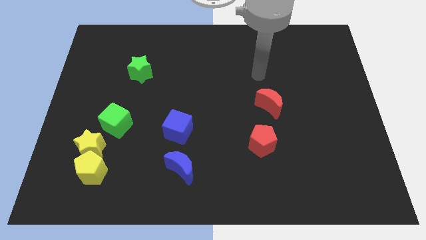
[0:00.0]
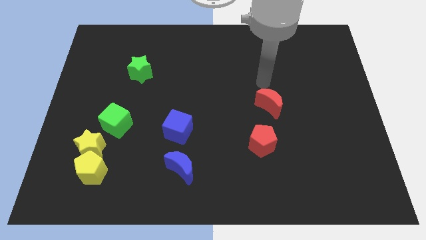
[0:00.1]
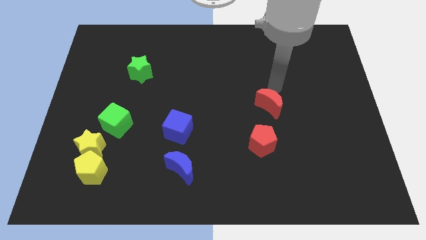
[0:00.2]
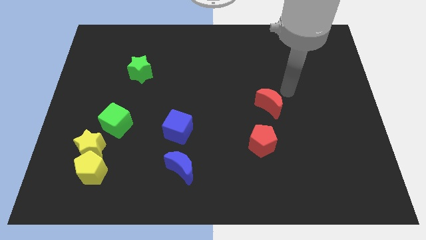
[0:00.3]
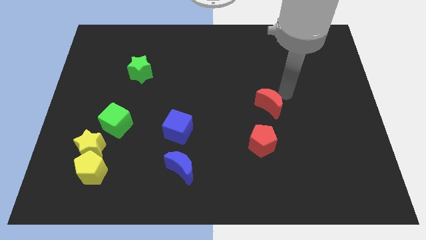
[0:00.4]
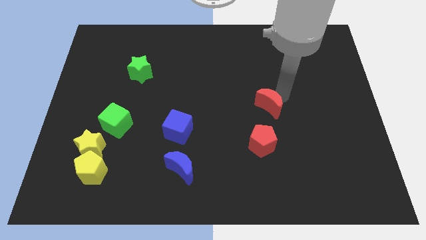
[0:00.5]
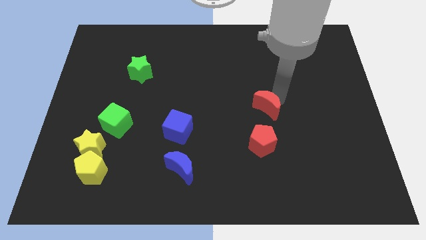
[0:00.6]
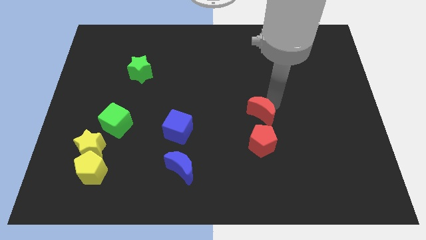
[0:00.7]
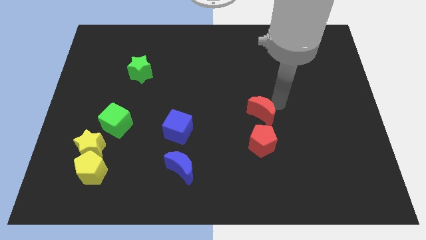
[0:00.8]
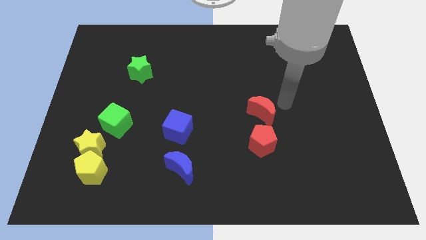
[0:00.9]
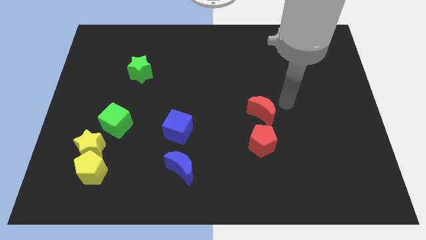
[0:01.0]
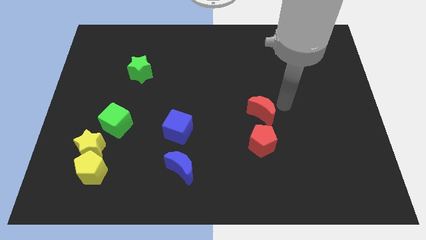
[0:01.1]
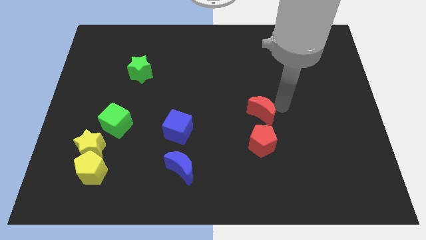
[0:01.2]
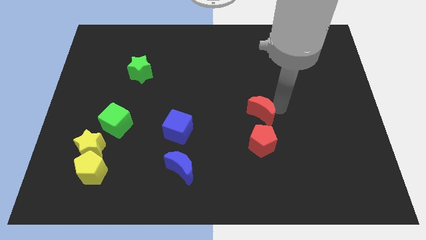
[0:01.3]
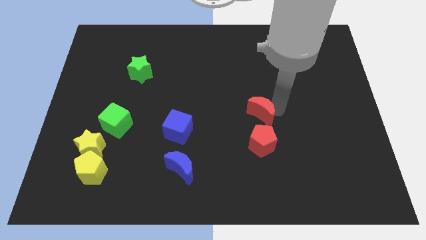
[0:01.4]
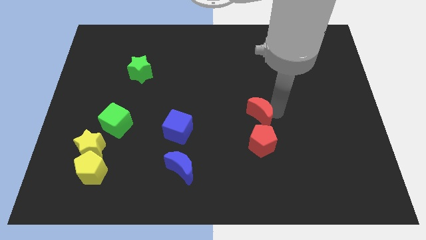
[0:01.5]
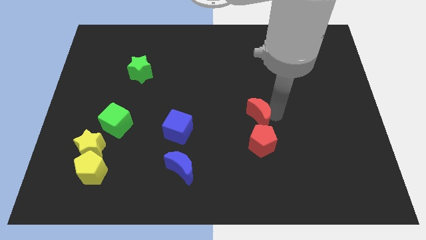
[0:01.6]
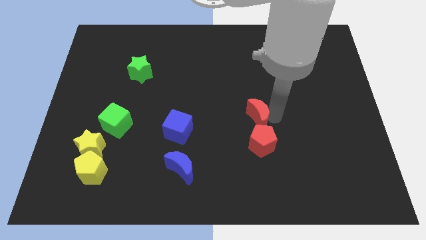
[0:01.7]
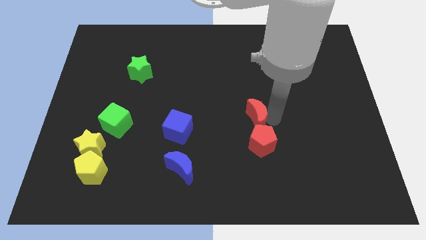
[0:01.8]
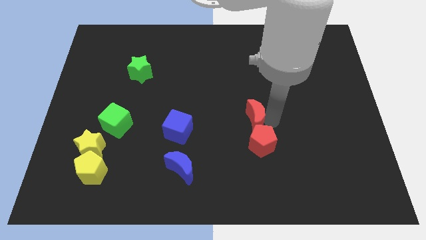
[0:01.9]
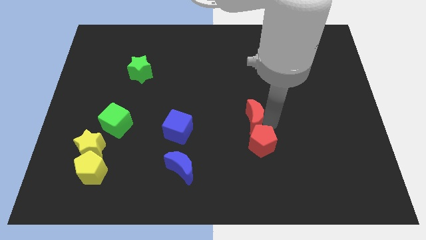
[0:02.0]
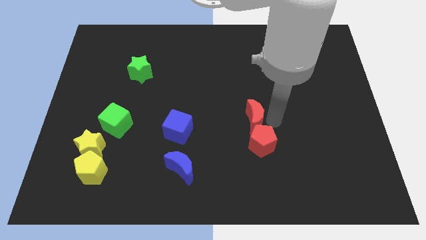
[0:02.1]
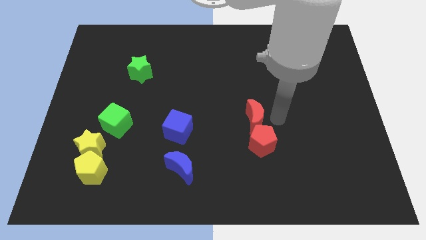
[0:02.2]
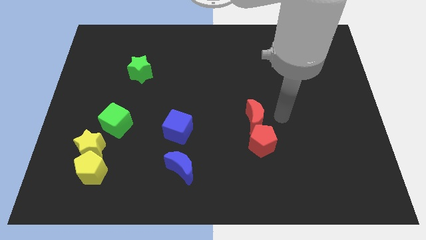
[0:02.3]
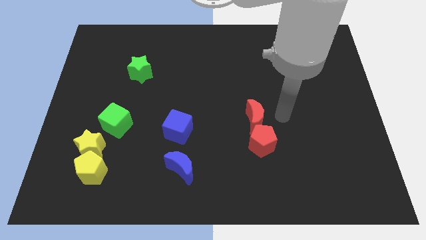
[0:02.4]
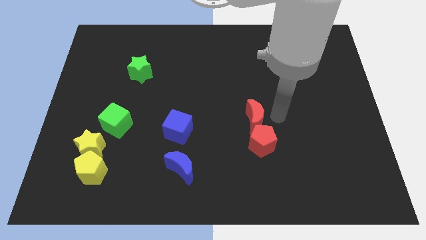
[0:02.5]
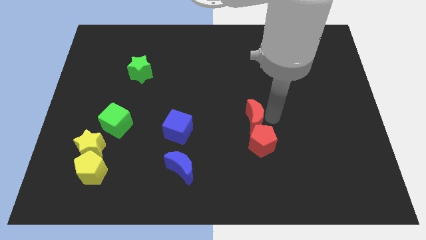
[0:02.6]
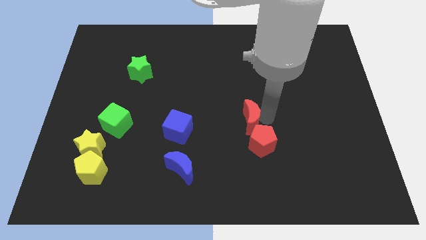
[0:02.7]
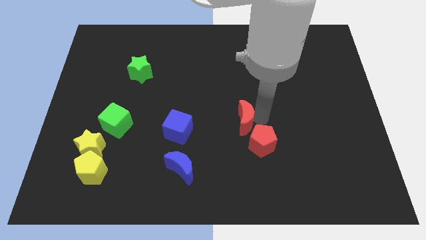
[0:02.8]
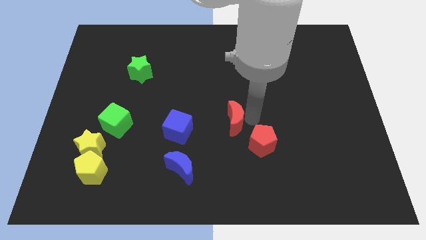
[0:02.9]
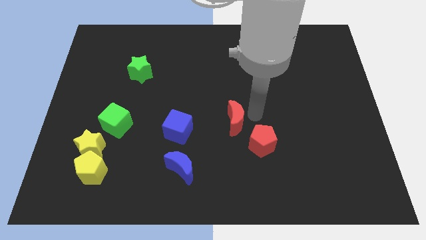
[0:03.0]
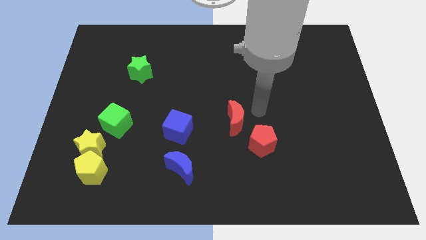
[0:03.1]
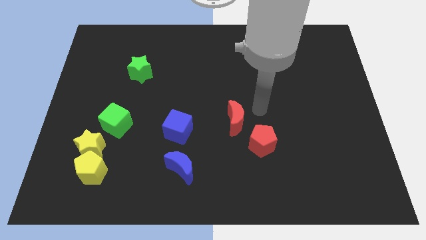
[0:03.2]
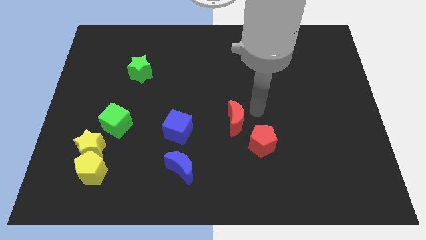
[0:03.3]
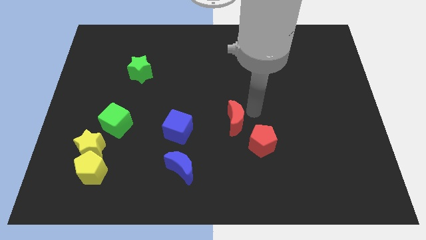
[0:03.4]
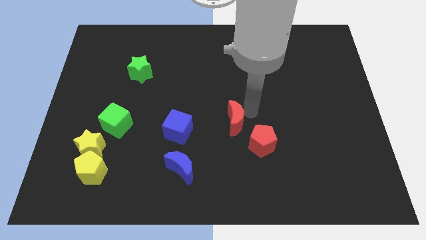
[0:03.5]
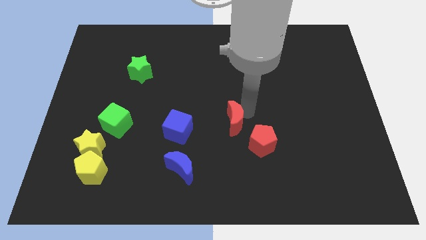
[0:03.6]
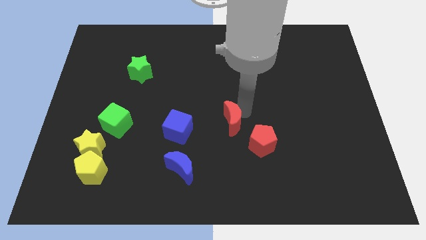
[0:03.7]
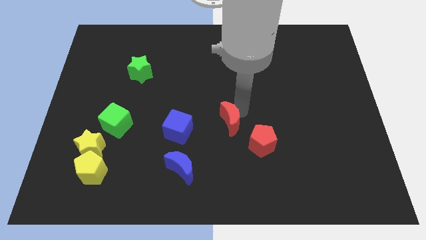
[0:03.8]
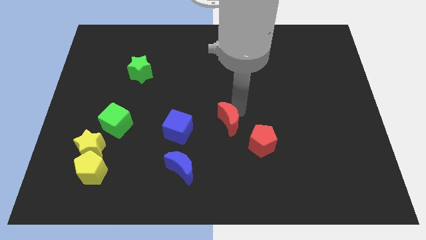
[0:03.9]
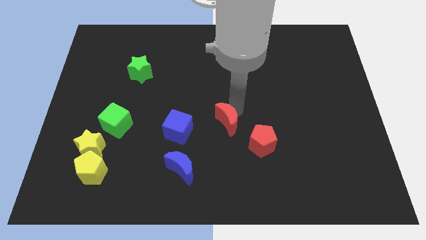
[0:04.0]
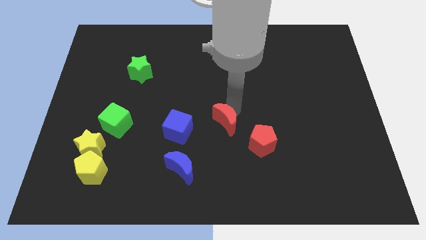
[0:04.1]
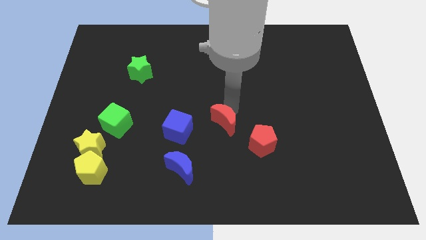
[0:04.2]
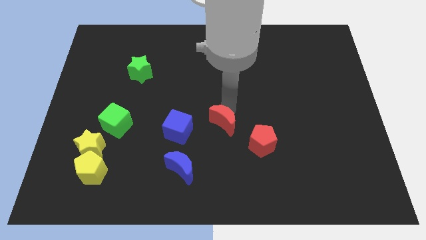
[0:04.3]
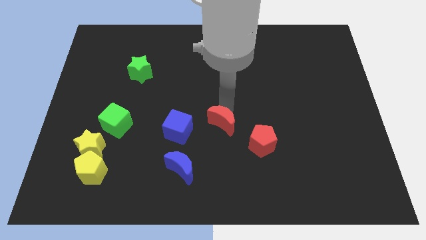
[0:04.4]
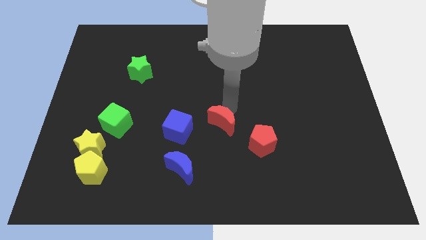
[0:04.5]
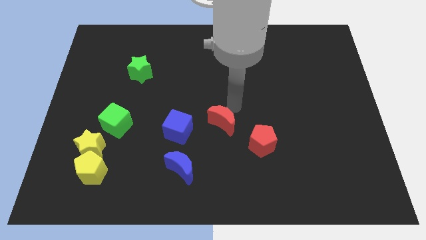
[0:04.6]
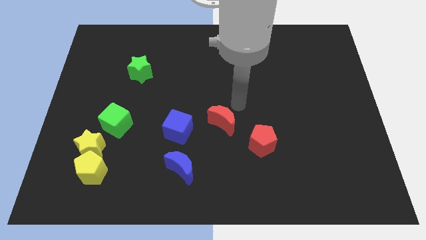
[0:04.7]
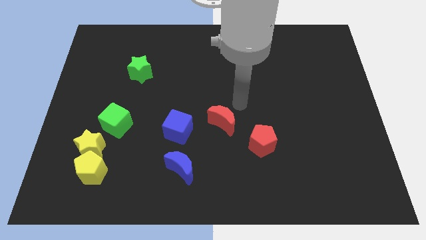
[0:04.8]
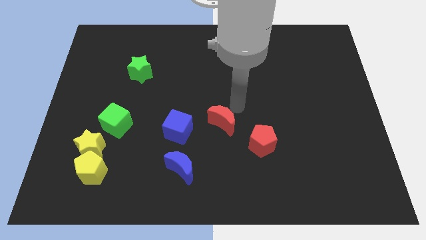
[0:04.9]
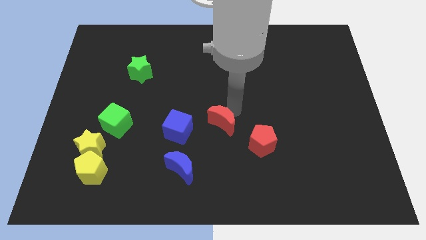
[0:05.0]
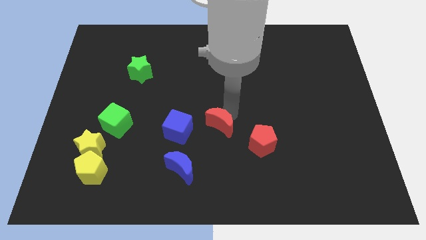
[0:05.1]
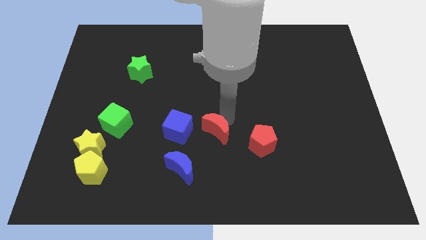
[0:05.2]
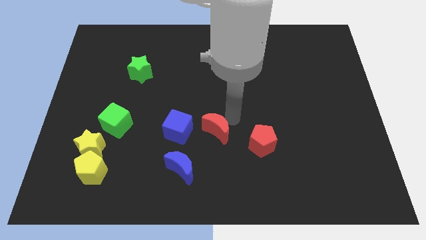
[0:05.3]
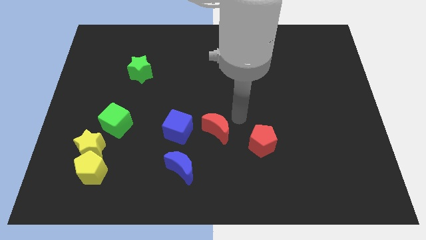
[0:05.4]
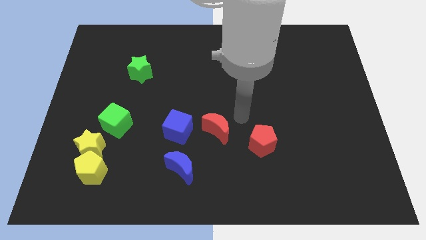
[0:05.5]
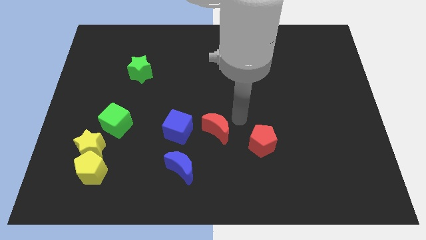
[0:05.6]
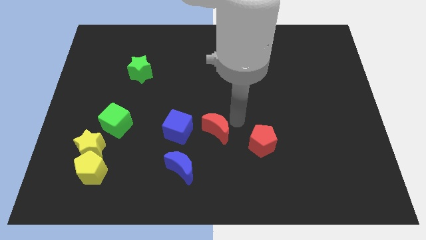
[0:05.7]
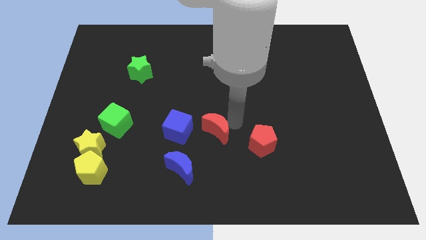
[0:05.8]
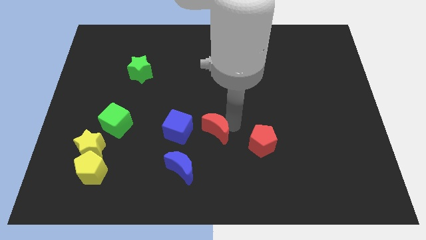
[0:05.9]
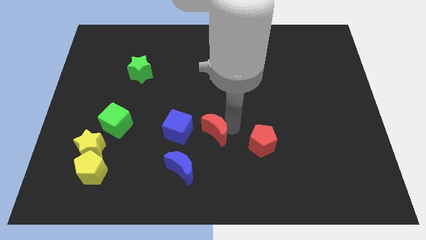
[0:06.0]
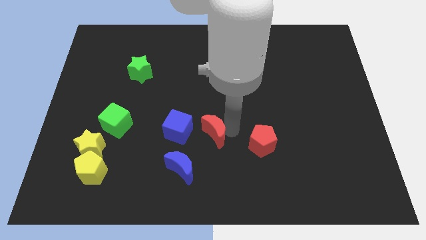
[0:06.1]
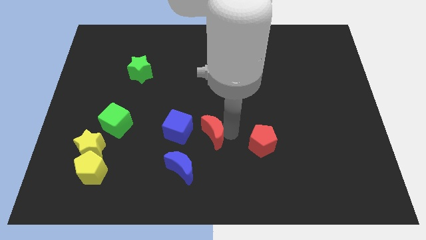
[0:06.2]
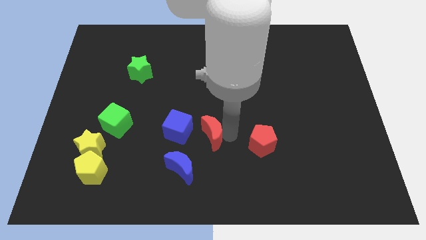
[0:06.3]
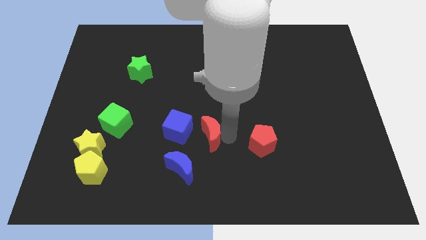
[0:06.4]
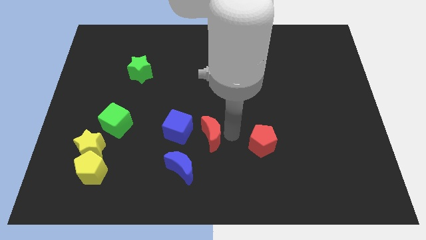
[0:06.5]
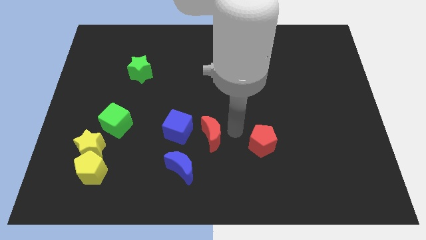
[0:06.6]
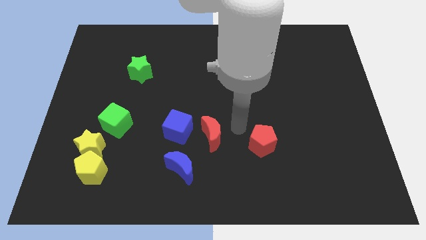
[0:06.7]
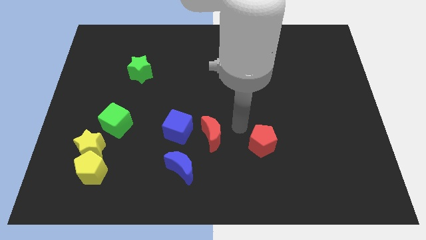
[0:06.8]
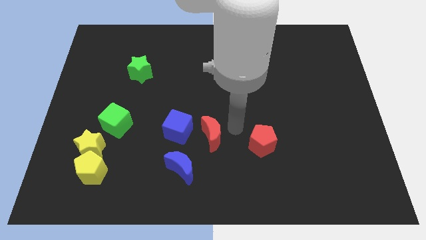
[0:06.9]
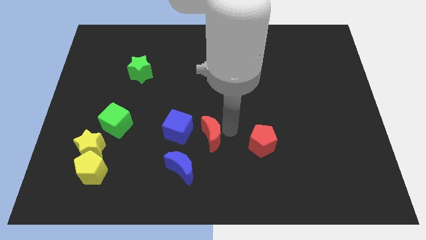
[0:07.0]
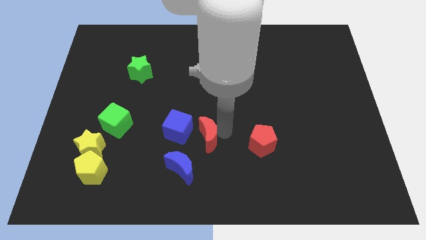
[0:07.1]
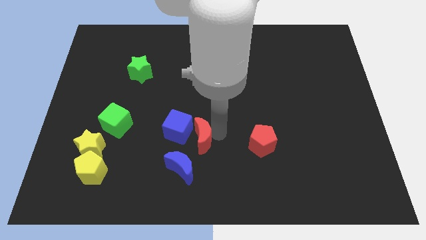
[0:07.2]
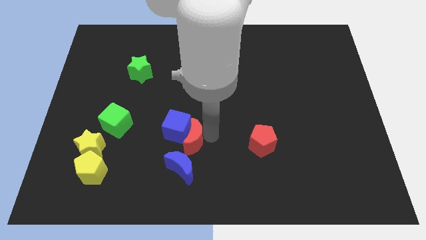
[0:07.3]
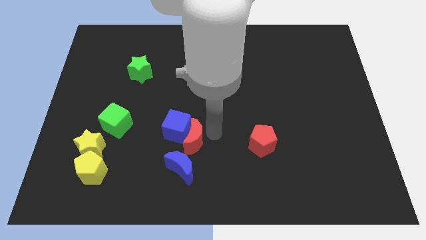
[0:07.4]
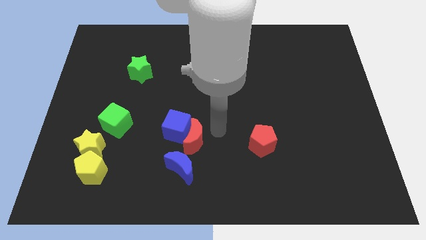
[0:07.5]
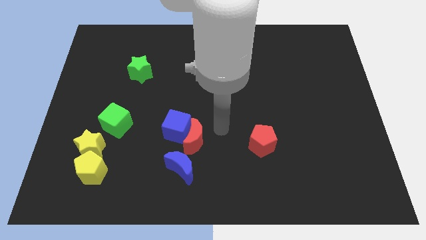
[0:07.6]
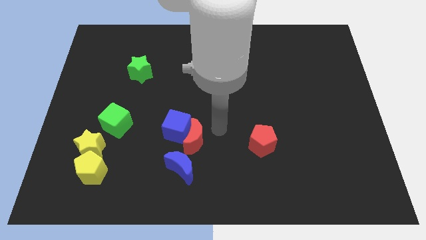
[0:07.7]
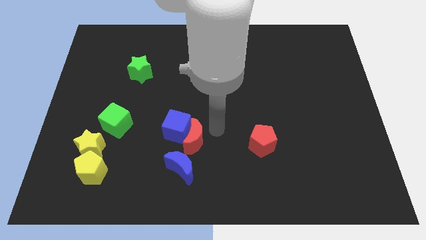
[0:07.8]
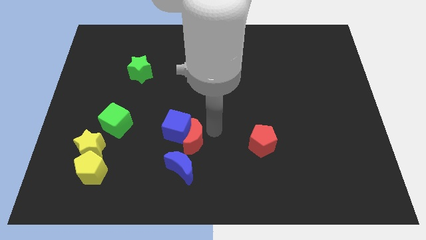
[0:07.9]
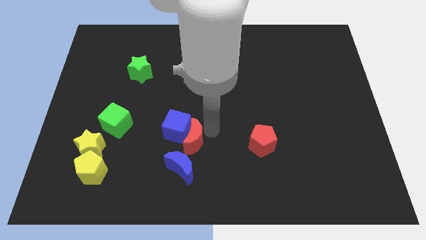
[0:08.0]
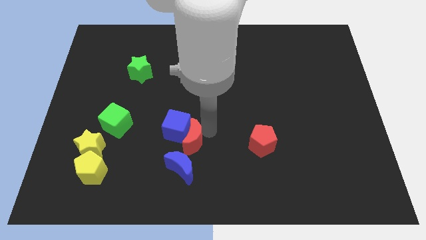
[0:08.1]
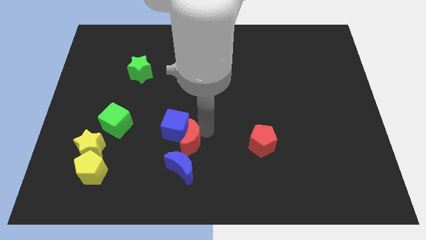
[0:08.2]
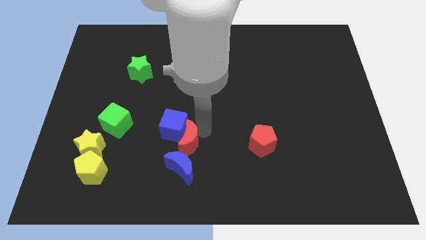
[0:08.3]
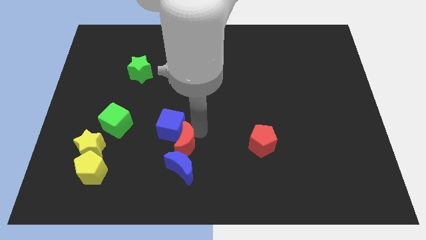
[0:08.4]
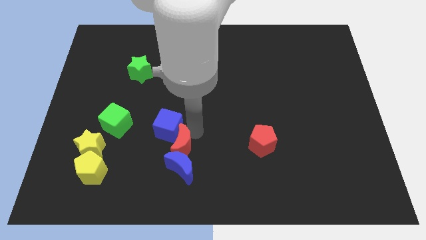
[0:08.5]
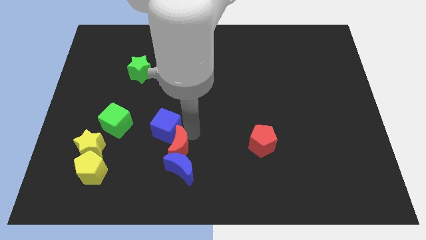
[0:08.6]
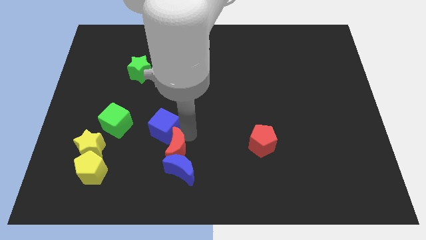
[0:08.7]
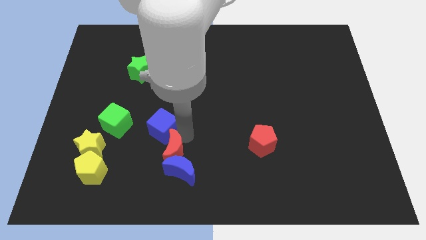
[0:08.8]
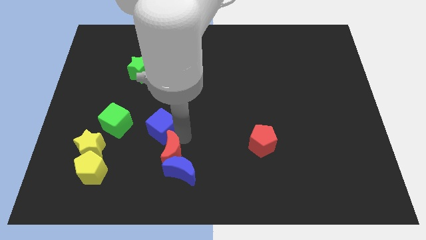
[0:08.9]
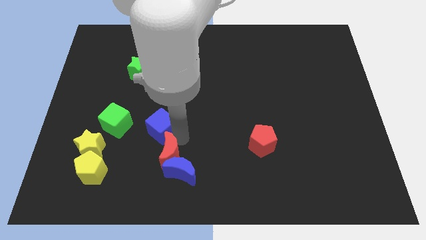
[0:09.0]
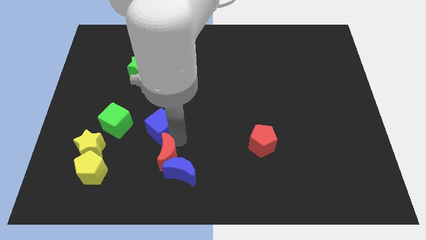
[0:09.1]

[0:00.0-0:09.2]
move the red moon left of the blue moon
